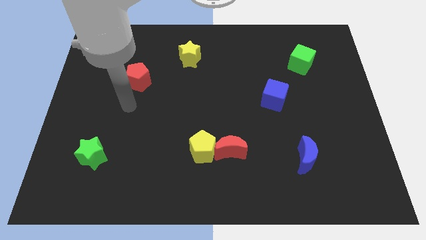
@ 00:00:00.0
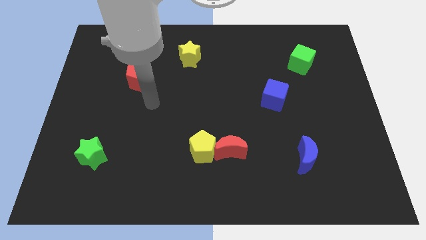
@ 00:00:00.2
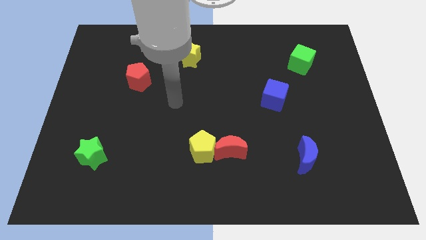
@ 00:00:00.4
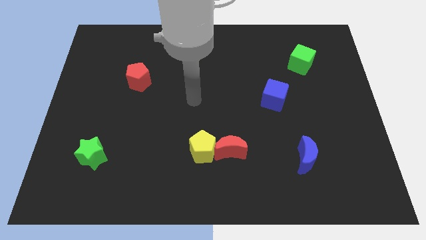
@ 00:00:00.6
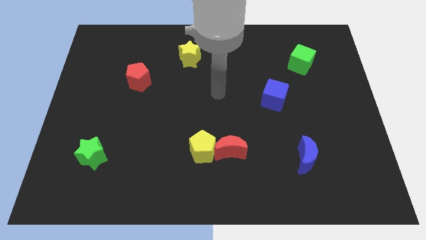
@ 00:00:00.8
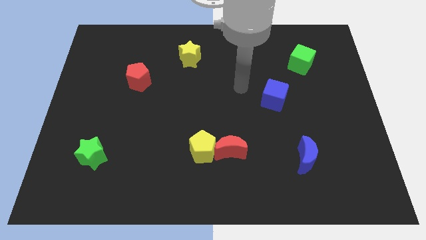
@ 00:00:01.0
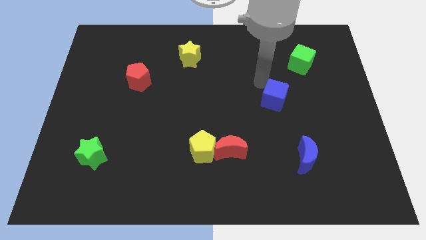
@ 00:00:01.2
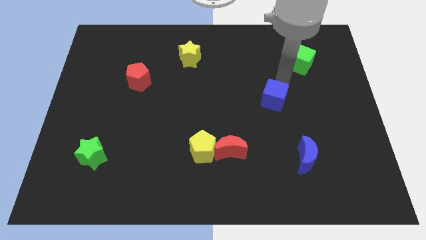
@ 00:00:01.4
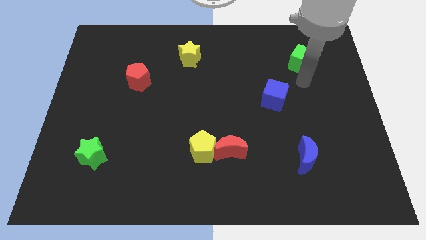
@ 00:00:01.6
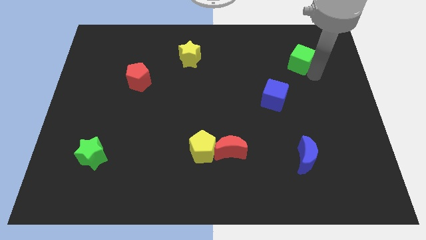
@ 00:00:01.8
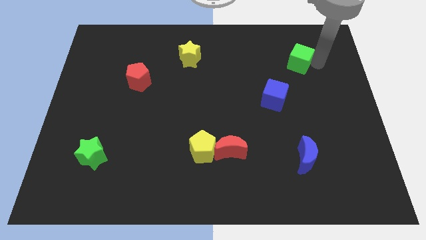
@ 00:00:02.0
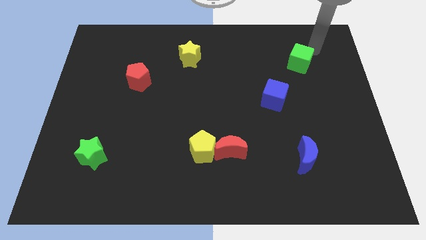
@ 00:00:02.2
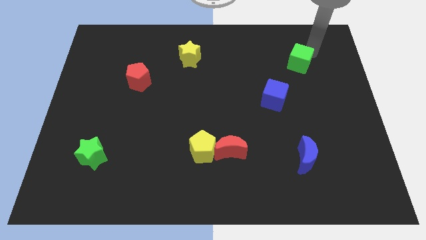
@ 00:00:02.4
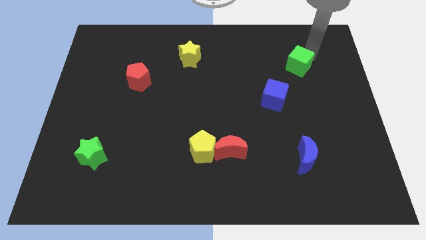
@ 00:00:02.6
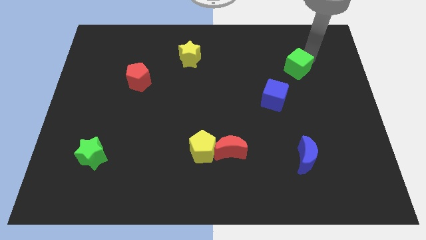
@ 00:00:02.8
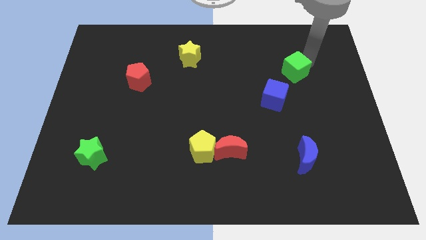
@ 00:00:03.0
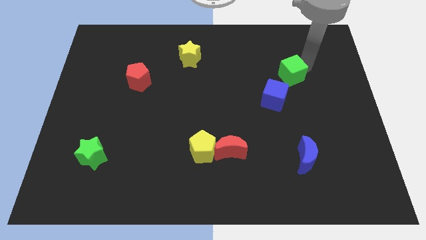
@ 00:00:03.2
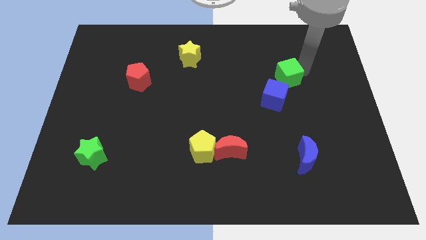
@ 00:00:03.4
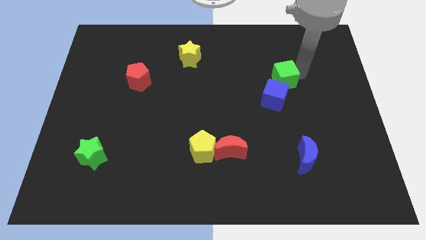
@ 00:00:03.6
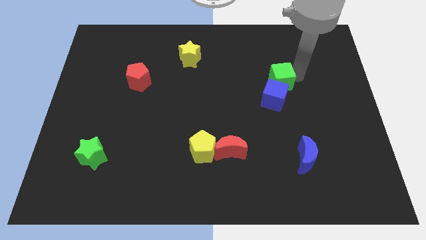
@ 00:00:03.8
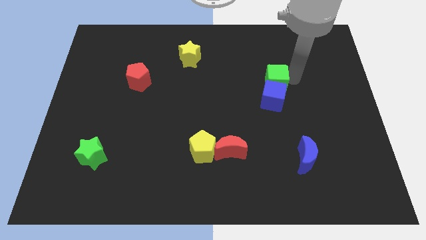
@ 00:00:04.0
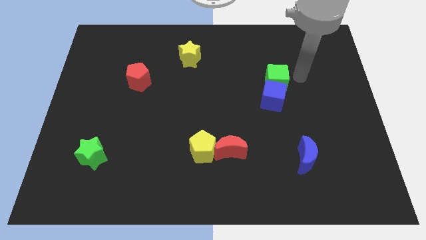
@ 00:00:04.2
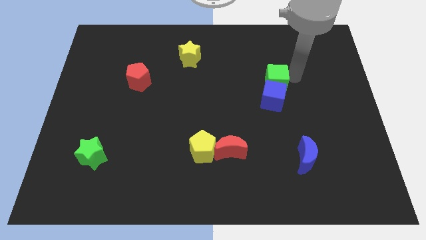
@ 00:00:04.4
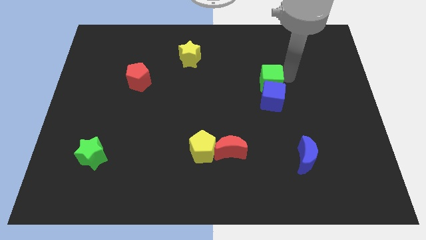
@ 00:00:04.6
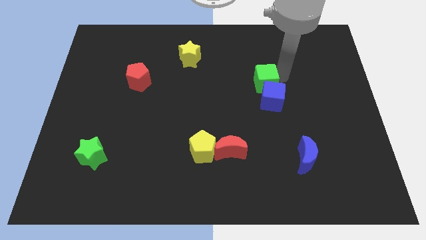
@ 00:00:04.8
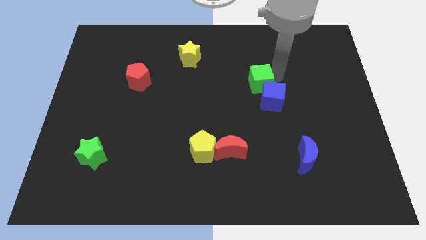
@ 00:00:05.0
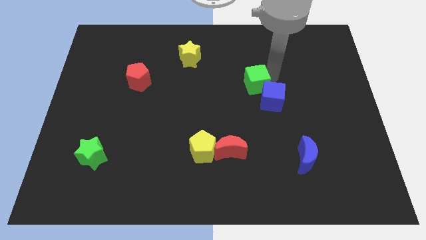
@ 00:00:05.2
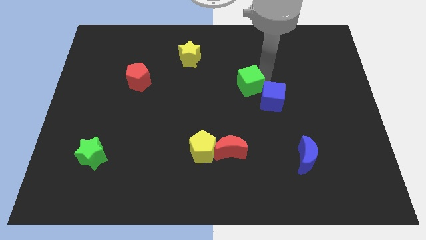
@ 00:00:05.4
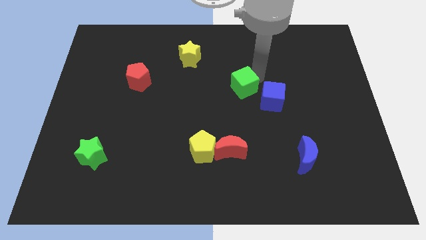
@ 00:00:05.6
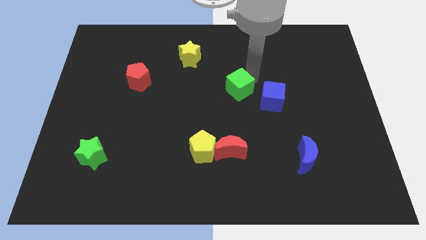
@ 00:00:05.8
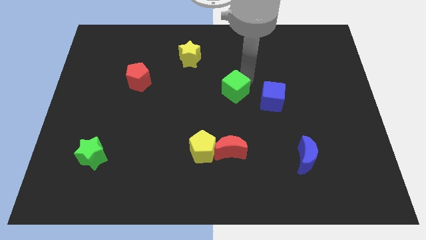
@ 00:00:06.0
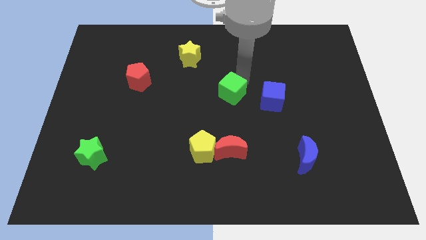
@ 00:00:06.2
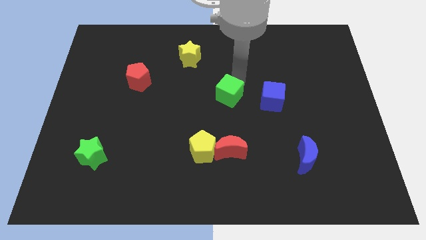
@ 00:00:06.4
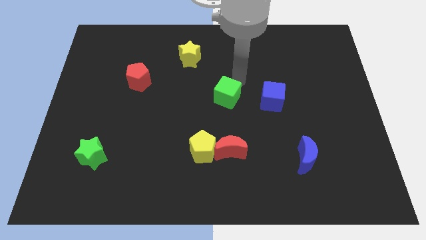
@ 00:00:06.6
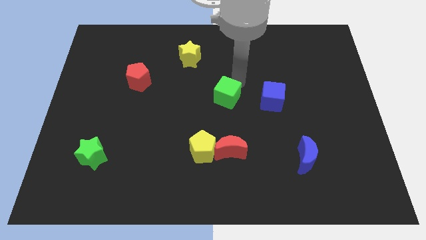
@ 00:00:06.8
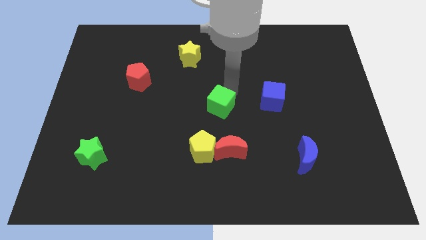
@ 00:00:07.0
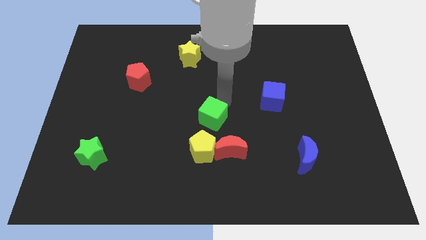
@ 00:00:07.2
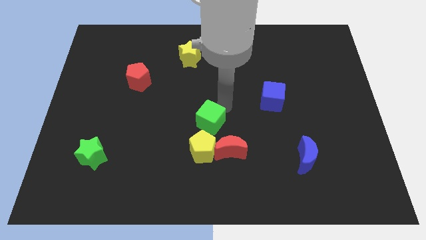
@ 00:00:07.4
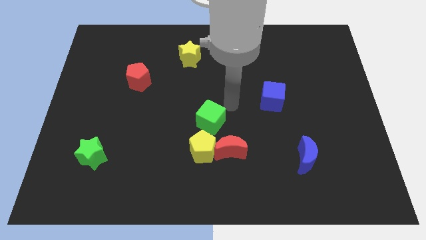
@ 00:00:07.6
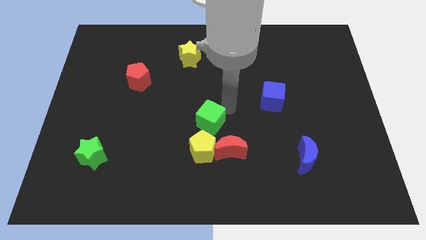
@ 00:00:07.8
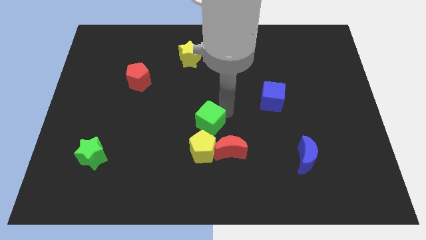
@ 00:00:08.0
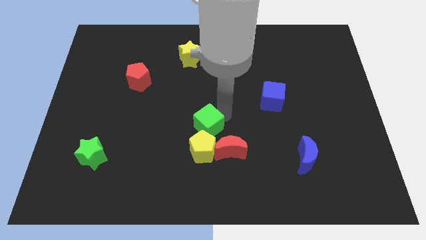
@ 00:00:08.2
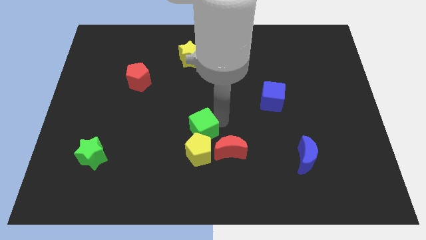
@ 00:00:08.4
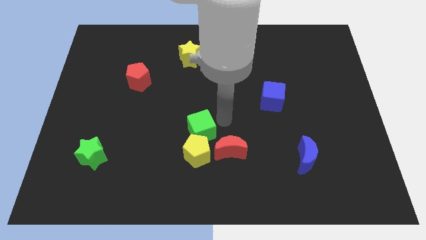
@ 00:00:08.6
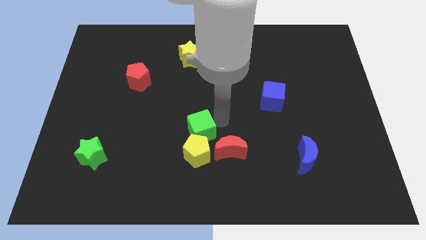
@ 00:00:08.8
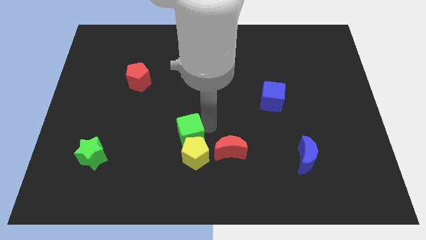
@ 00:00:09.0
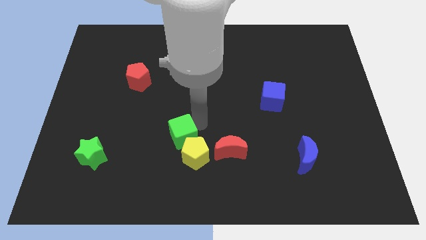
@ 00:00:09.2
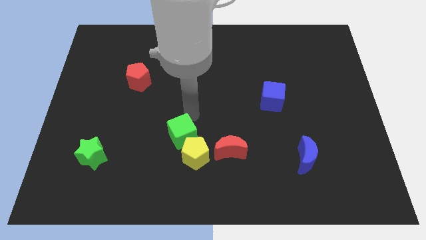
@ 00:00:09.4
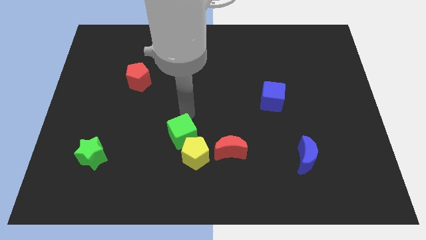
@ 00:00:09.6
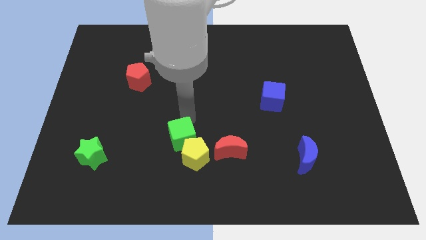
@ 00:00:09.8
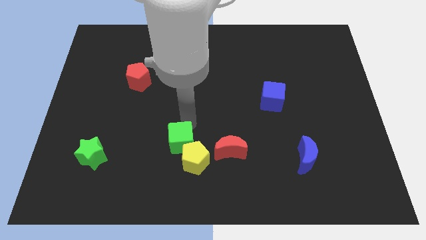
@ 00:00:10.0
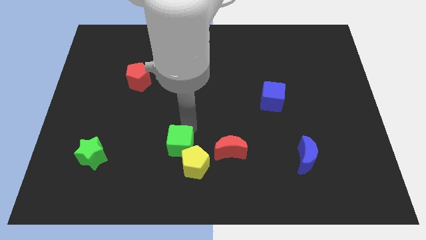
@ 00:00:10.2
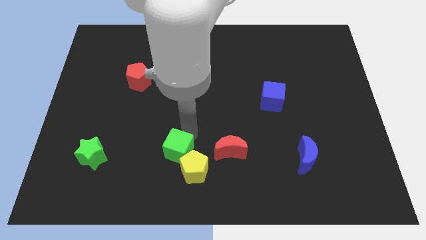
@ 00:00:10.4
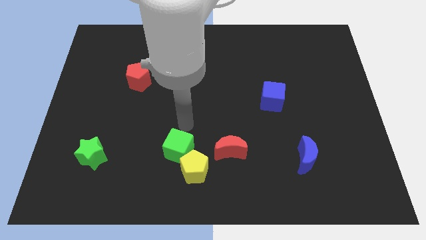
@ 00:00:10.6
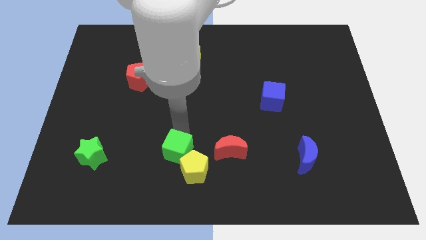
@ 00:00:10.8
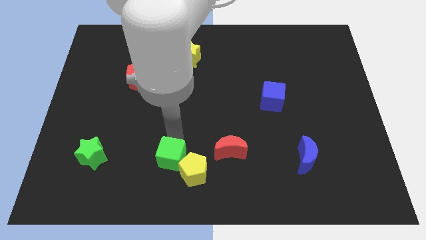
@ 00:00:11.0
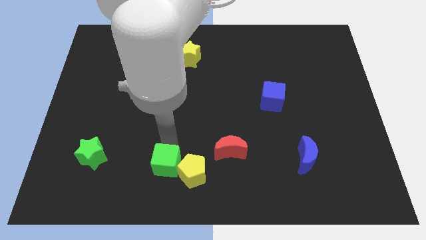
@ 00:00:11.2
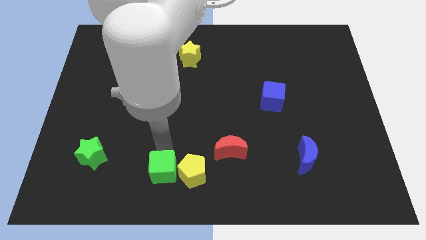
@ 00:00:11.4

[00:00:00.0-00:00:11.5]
put the green cube to the bottom left of the yellow pentagon

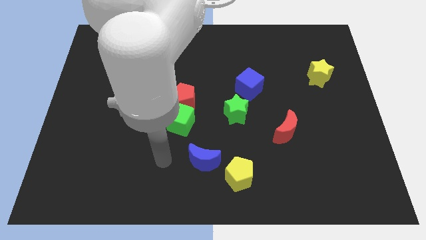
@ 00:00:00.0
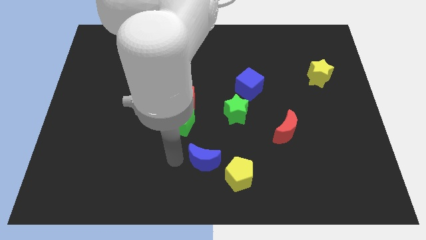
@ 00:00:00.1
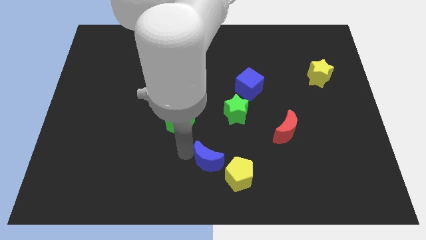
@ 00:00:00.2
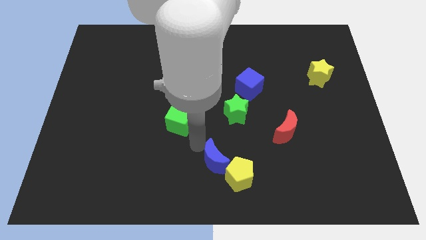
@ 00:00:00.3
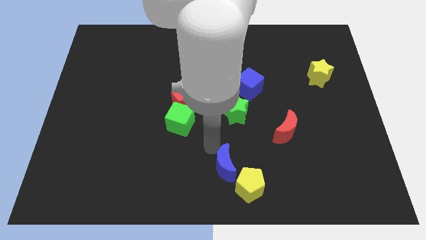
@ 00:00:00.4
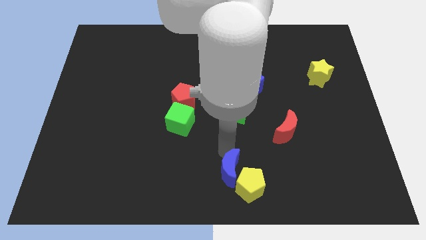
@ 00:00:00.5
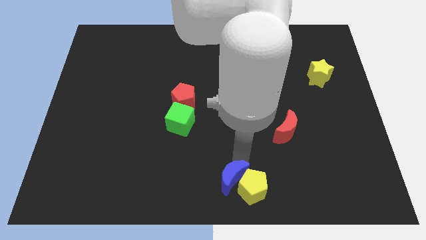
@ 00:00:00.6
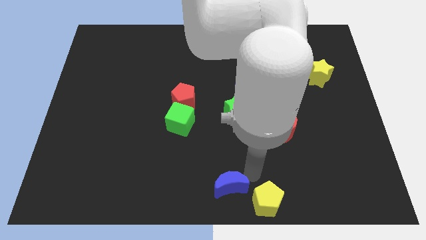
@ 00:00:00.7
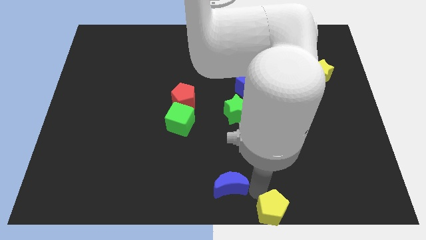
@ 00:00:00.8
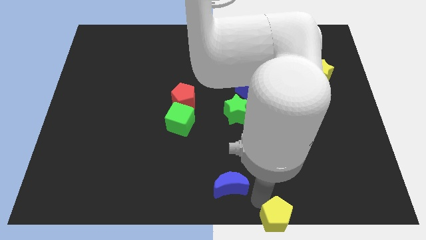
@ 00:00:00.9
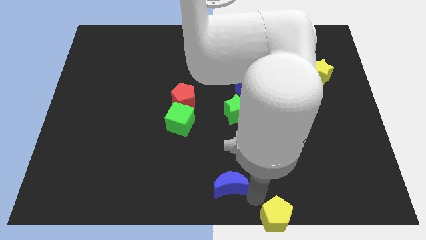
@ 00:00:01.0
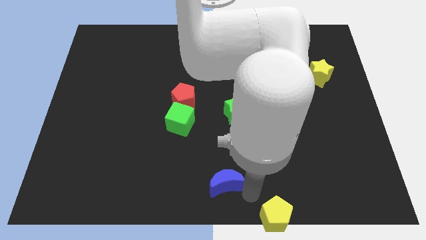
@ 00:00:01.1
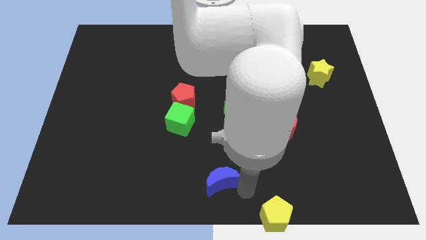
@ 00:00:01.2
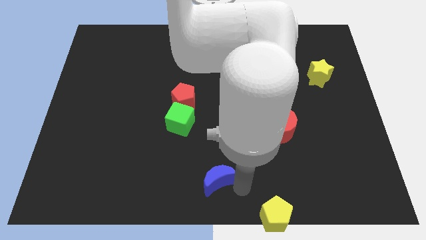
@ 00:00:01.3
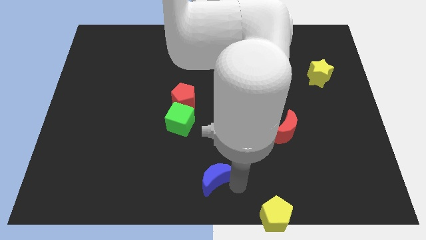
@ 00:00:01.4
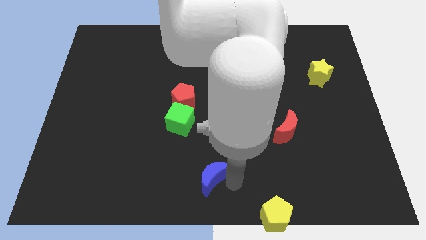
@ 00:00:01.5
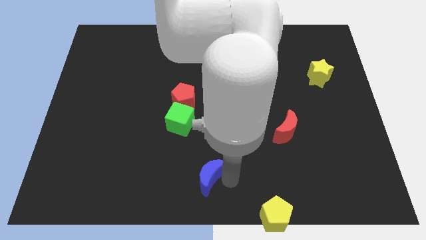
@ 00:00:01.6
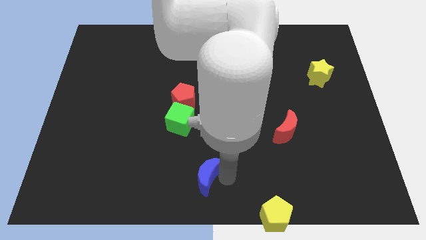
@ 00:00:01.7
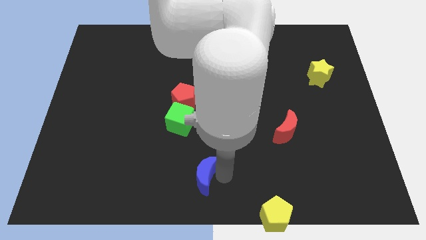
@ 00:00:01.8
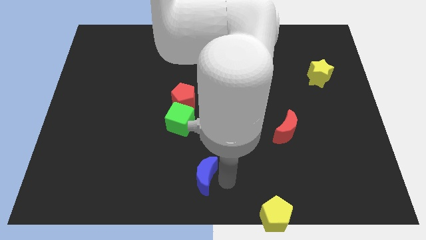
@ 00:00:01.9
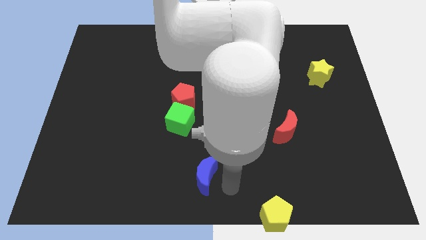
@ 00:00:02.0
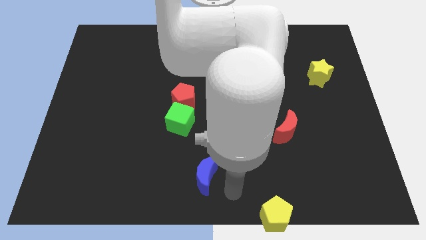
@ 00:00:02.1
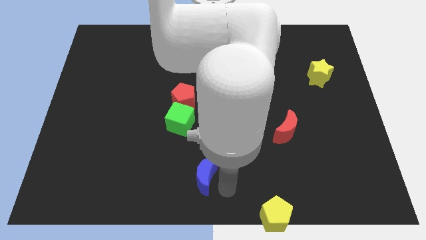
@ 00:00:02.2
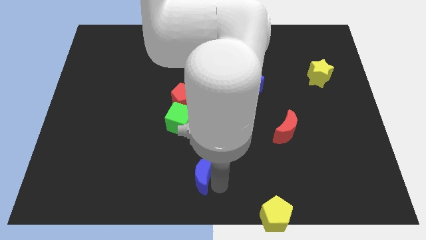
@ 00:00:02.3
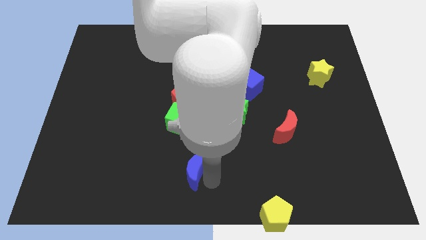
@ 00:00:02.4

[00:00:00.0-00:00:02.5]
move the blue moon to the bottom of the green cube
